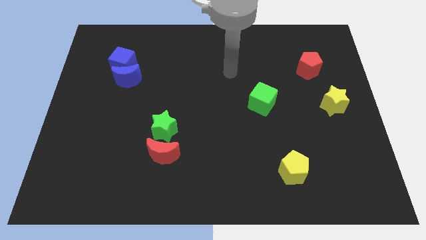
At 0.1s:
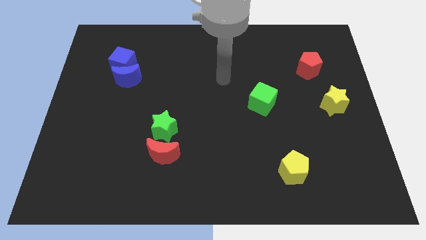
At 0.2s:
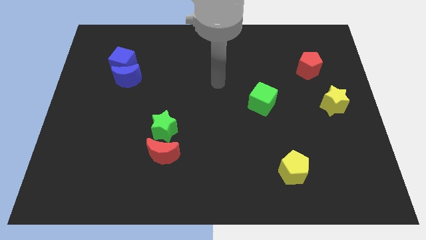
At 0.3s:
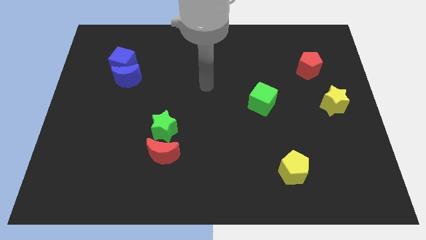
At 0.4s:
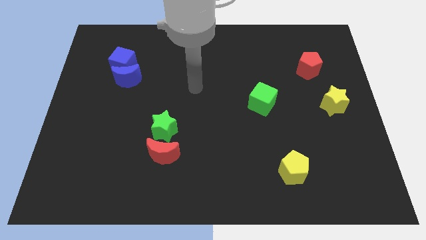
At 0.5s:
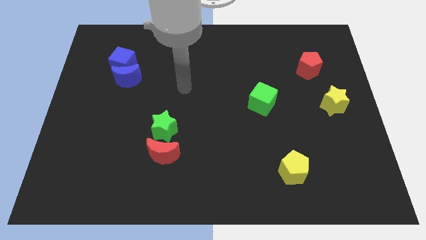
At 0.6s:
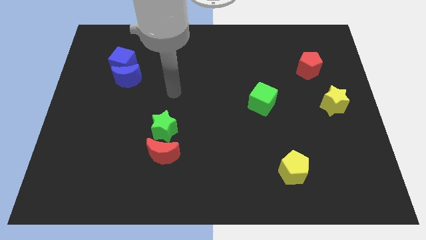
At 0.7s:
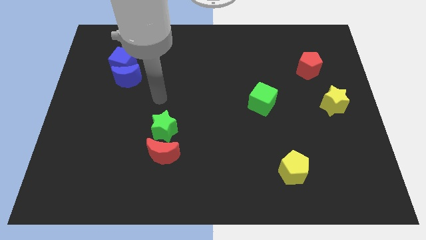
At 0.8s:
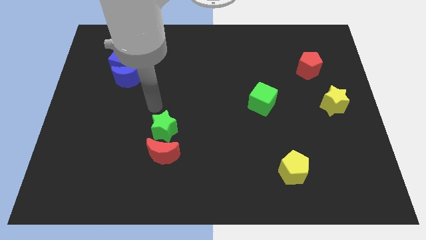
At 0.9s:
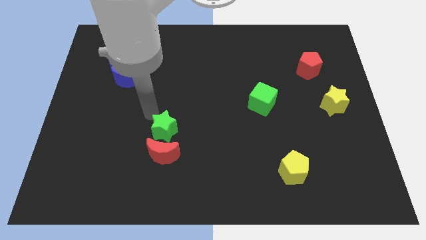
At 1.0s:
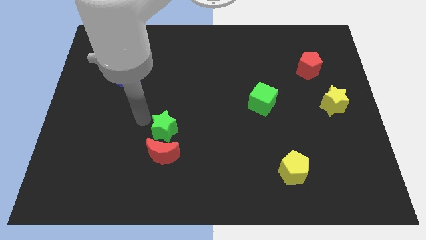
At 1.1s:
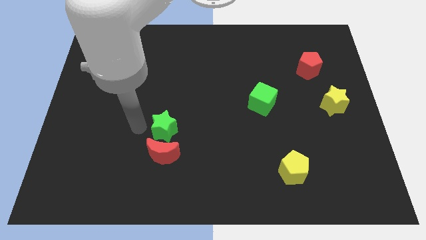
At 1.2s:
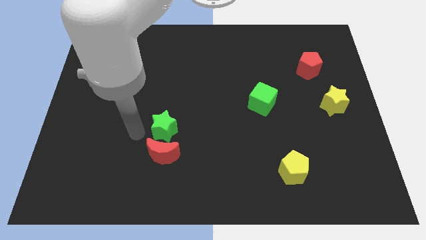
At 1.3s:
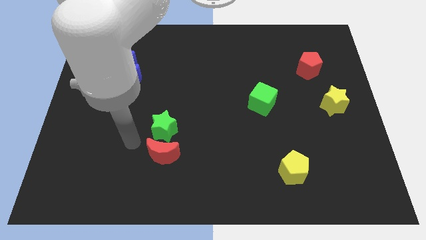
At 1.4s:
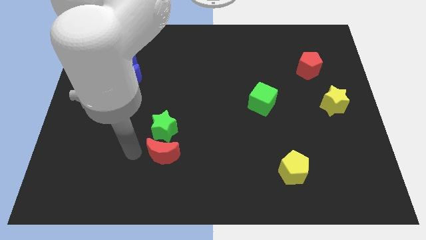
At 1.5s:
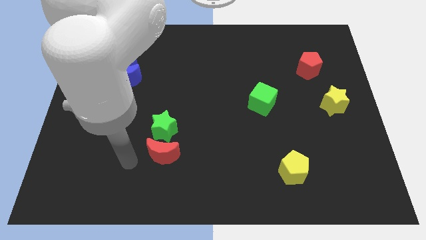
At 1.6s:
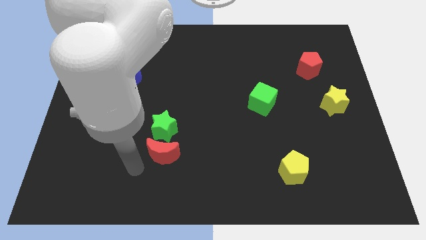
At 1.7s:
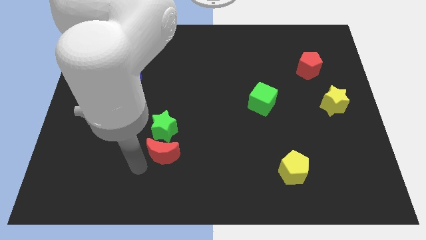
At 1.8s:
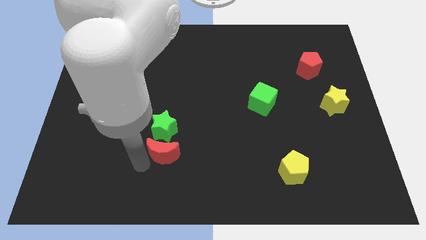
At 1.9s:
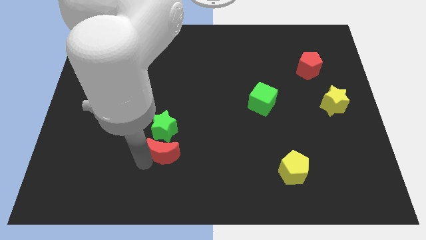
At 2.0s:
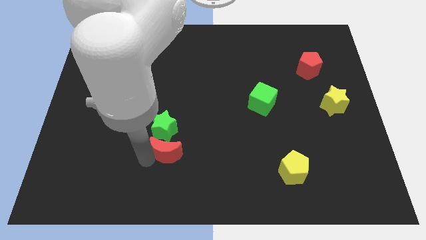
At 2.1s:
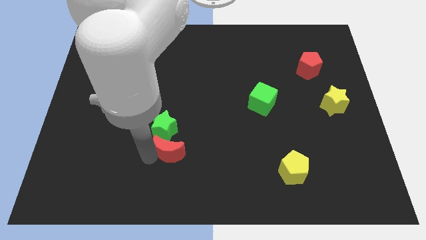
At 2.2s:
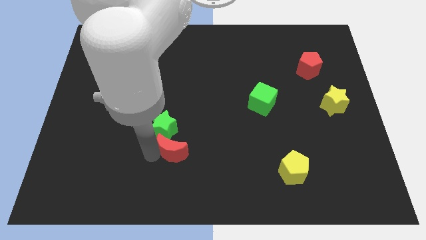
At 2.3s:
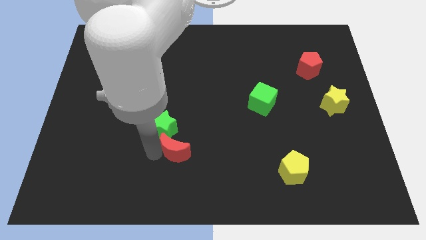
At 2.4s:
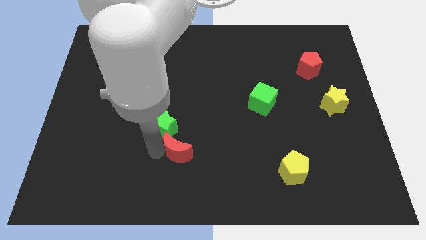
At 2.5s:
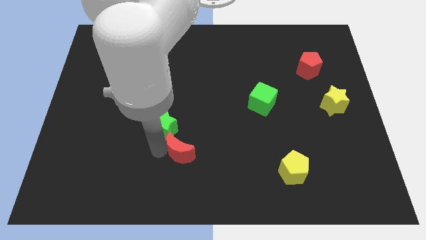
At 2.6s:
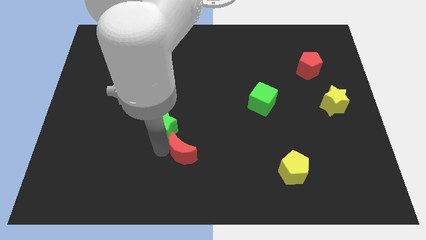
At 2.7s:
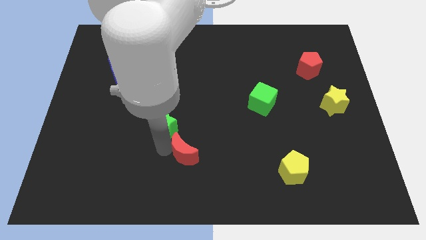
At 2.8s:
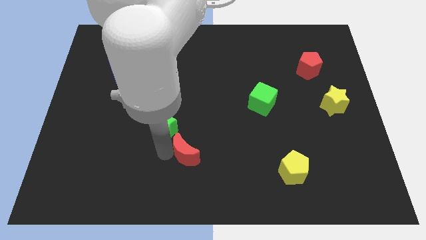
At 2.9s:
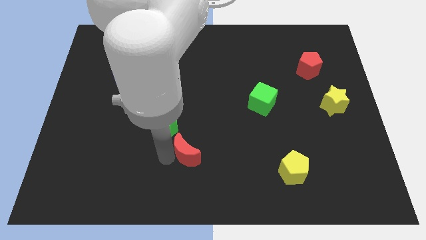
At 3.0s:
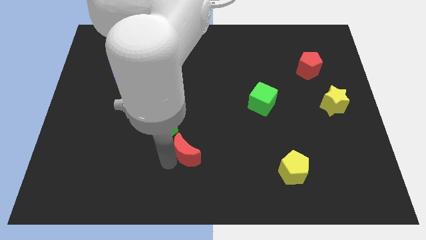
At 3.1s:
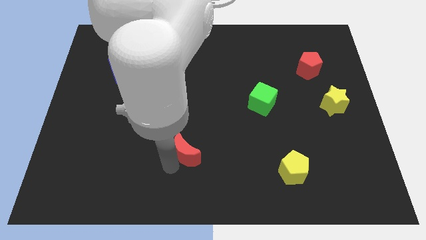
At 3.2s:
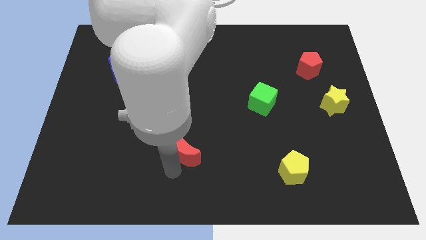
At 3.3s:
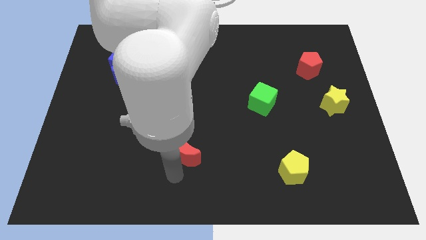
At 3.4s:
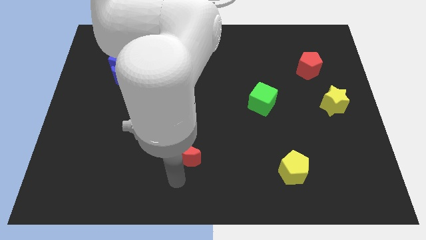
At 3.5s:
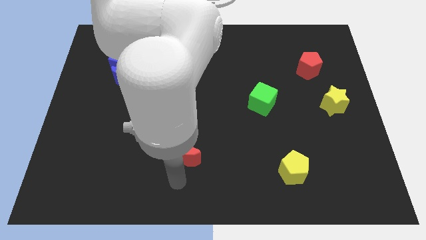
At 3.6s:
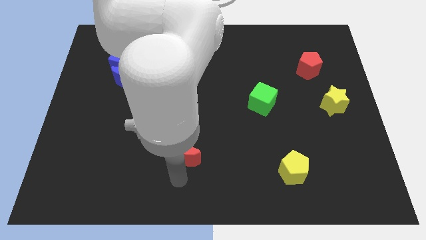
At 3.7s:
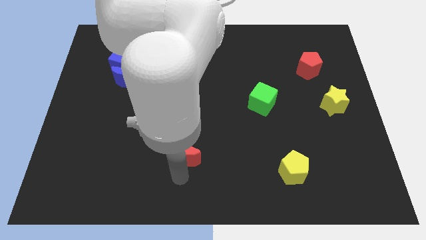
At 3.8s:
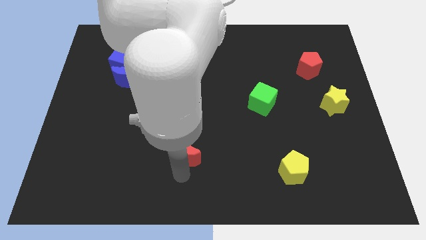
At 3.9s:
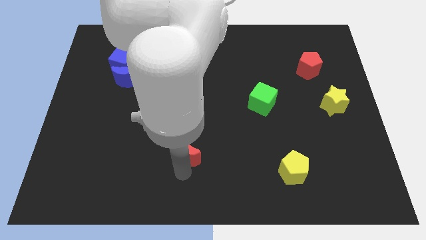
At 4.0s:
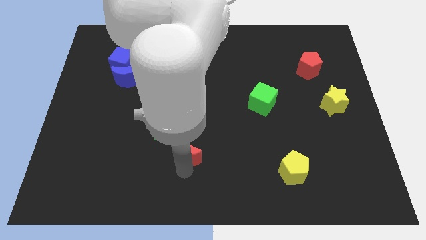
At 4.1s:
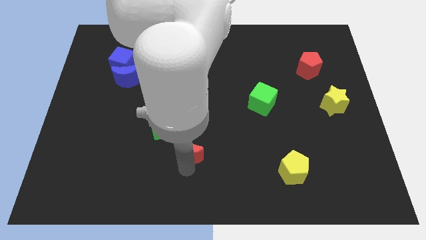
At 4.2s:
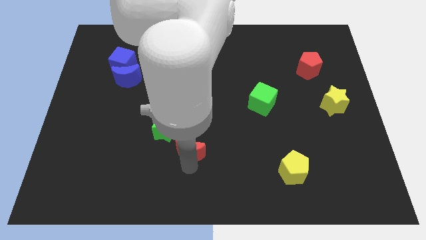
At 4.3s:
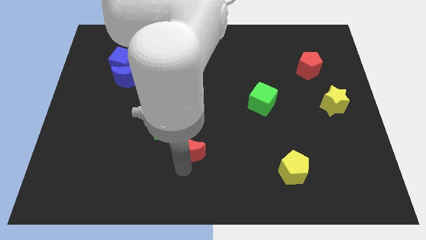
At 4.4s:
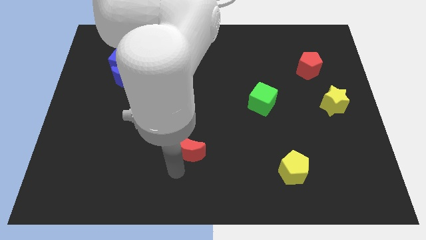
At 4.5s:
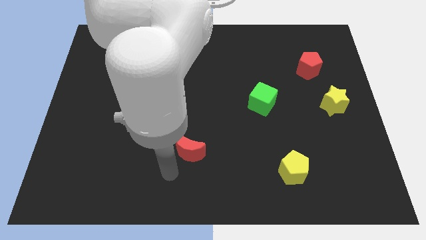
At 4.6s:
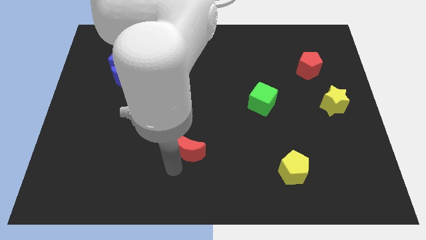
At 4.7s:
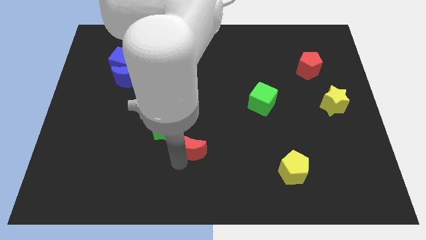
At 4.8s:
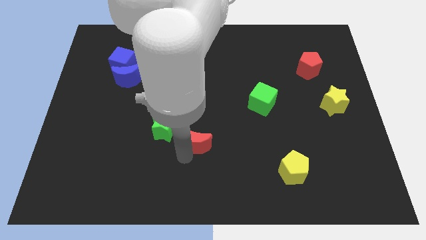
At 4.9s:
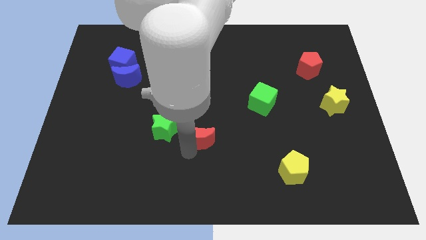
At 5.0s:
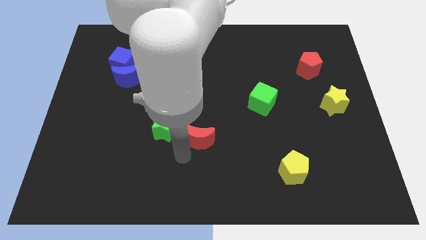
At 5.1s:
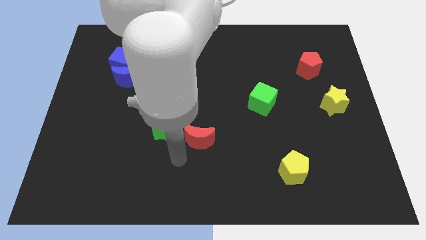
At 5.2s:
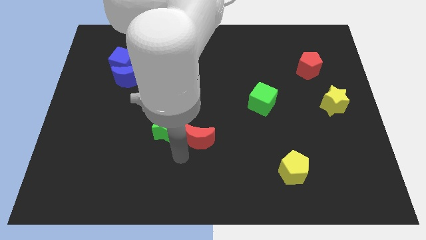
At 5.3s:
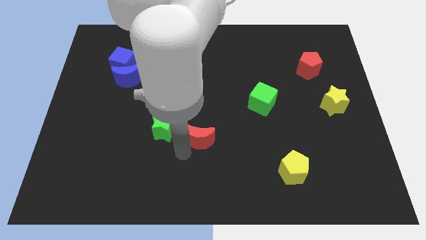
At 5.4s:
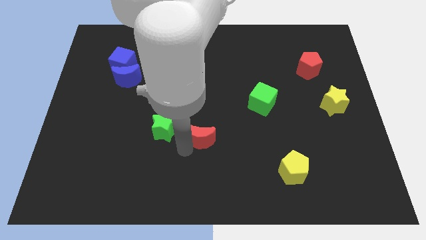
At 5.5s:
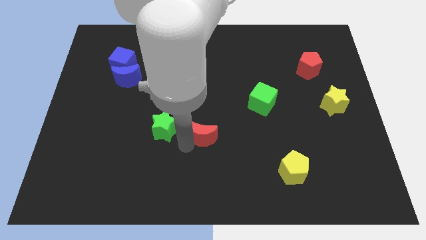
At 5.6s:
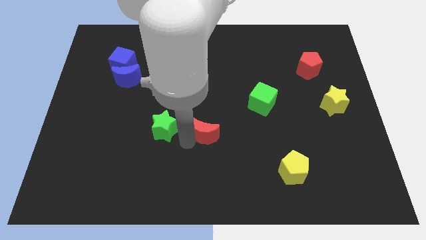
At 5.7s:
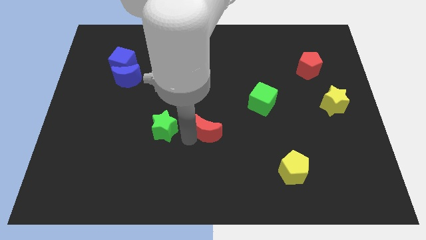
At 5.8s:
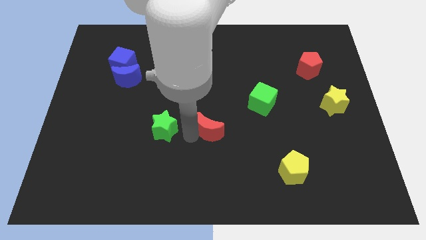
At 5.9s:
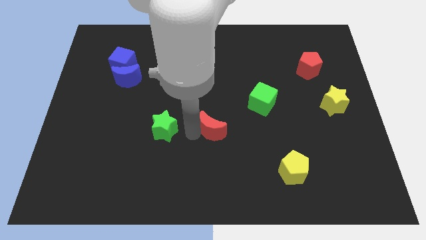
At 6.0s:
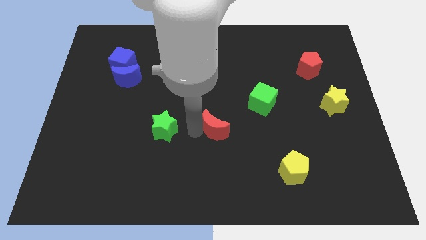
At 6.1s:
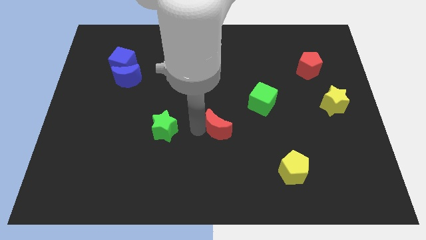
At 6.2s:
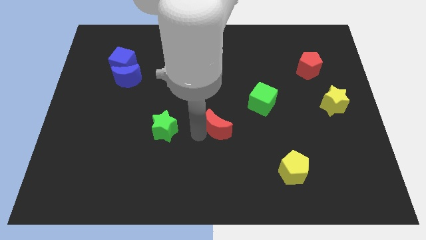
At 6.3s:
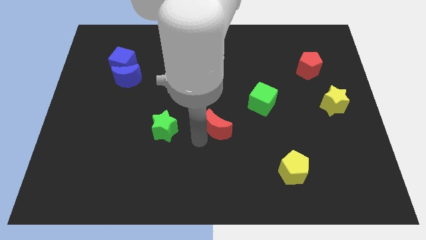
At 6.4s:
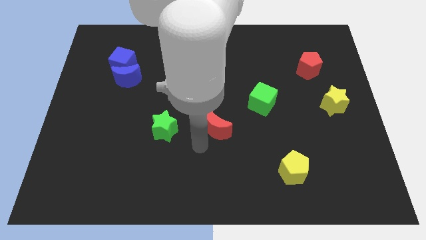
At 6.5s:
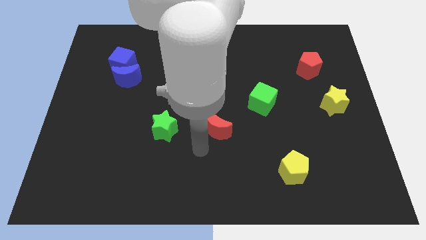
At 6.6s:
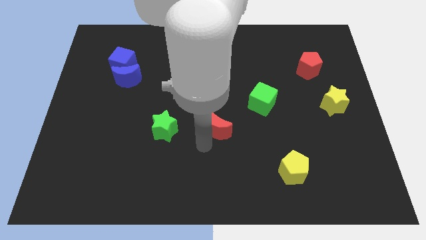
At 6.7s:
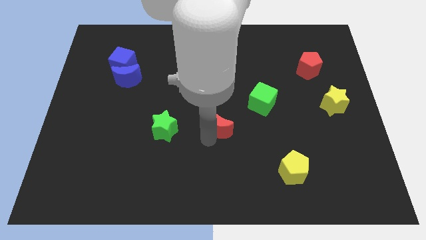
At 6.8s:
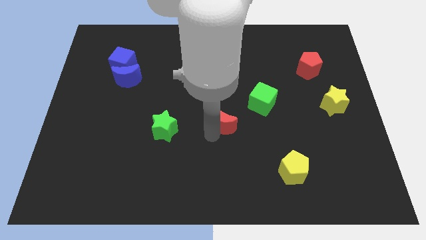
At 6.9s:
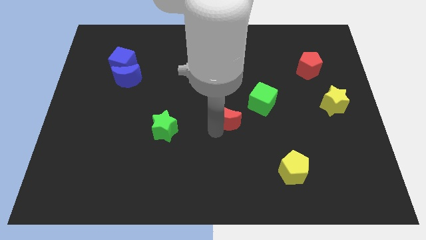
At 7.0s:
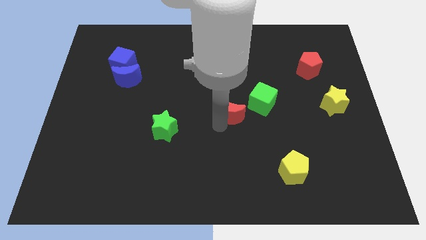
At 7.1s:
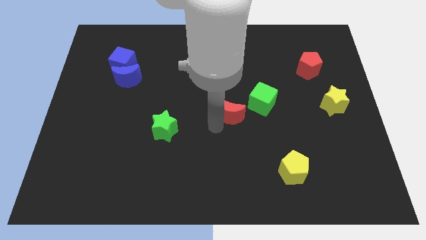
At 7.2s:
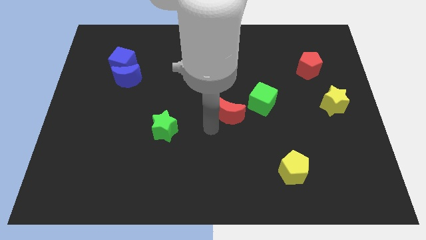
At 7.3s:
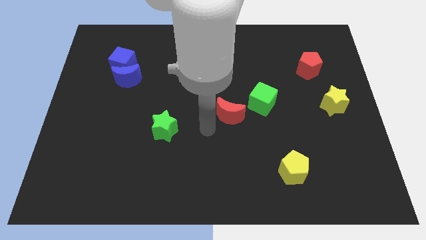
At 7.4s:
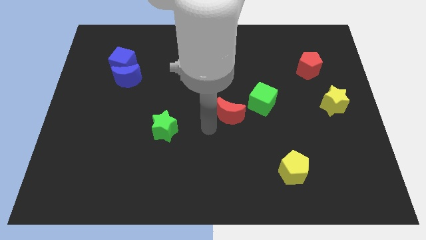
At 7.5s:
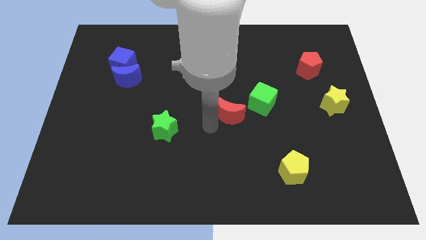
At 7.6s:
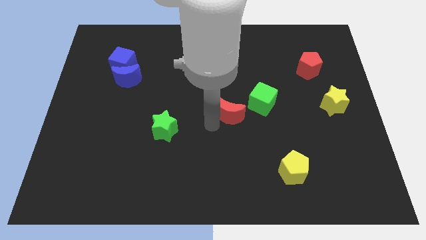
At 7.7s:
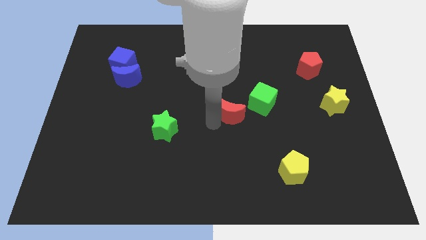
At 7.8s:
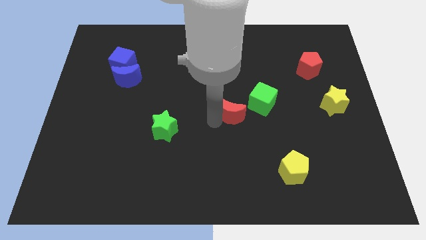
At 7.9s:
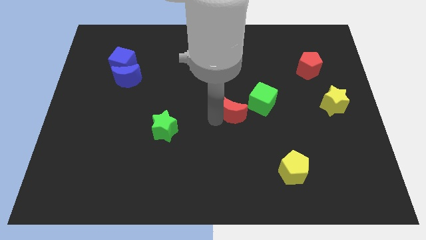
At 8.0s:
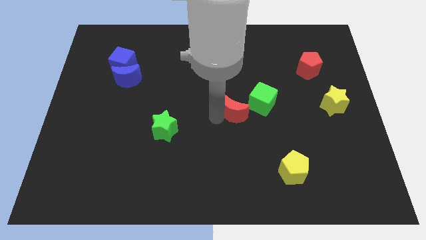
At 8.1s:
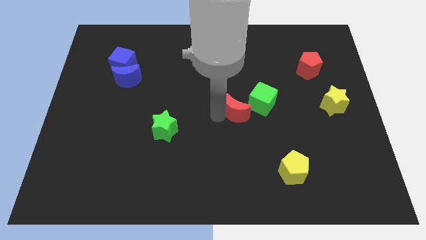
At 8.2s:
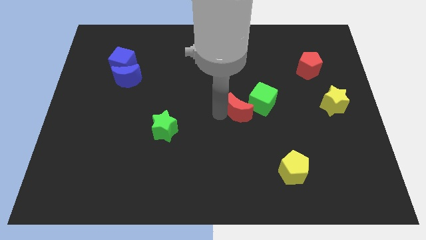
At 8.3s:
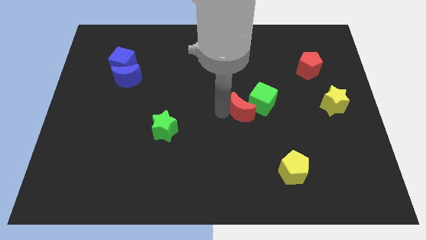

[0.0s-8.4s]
slide the red moon towards the green cube
